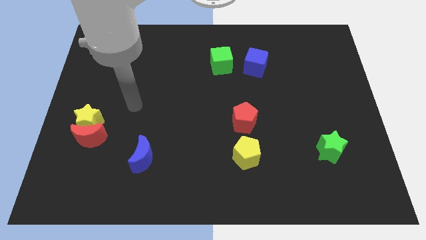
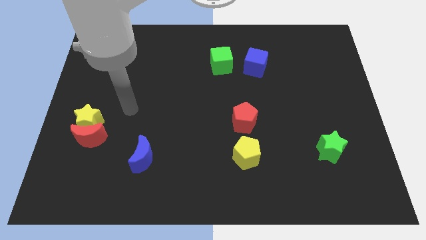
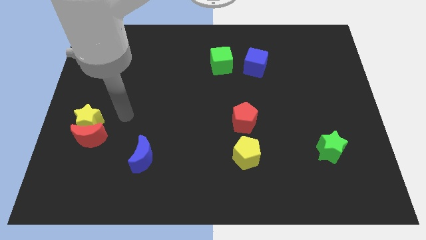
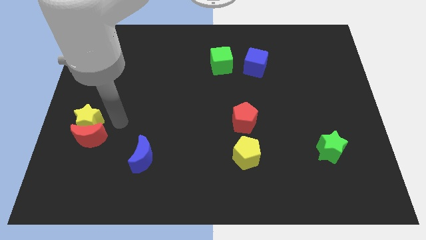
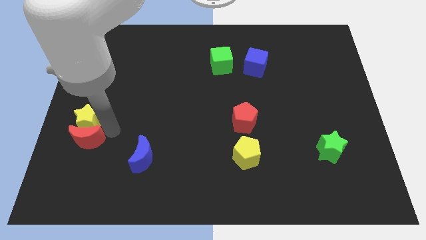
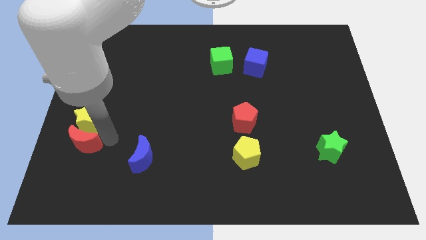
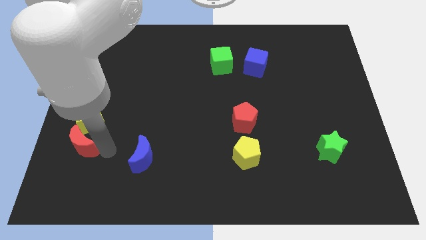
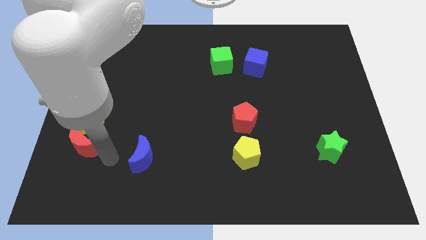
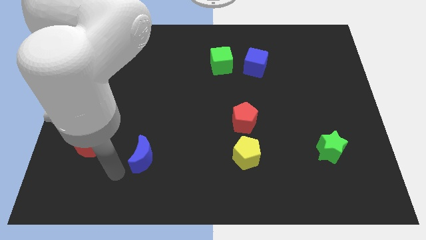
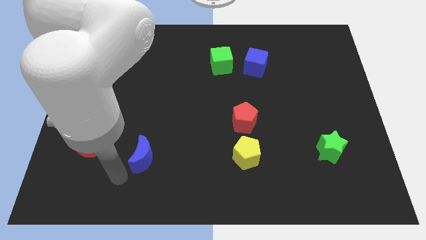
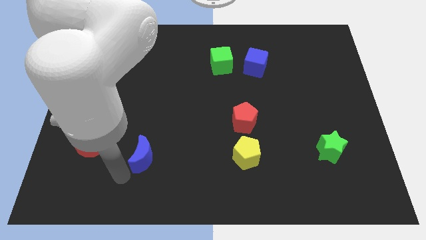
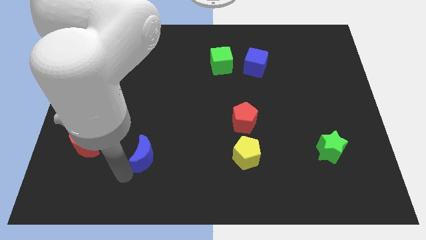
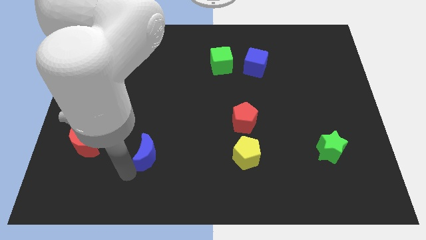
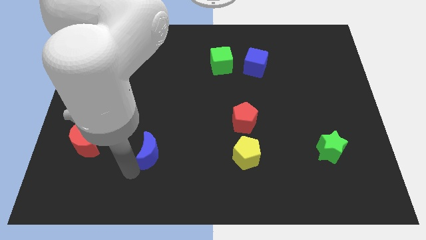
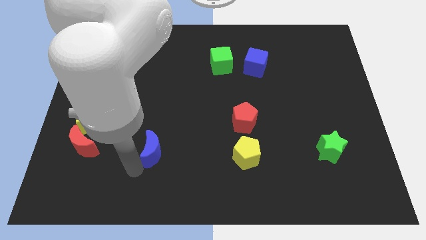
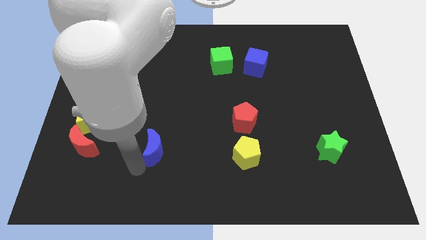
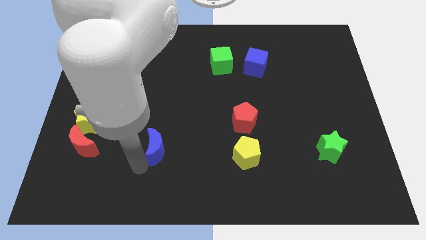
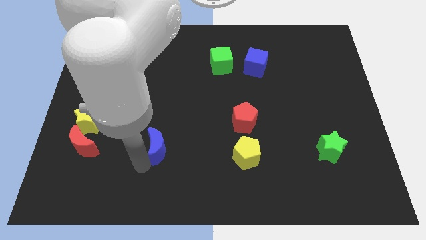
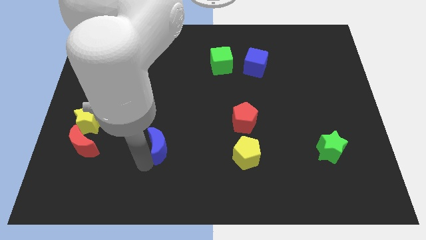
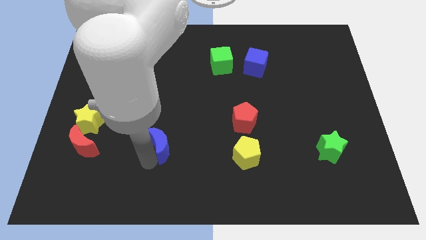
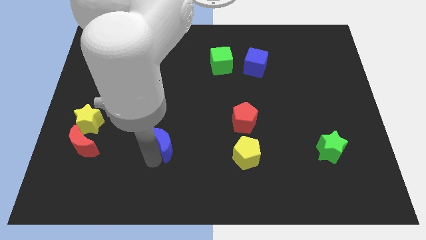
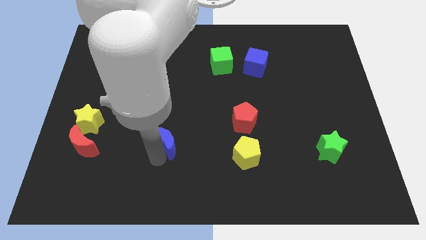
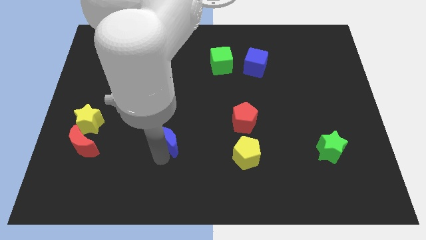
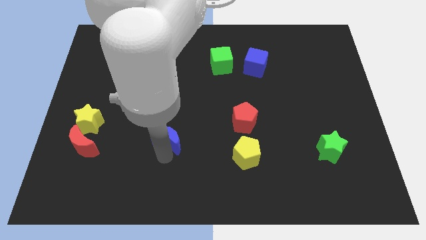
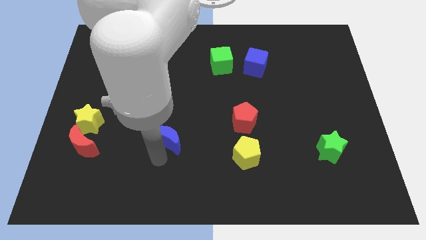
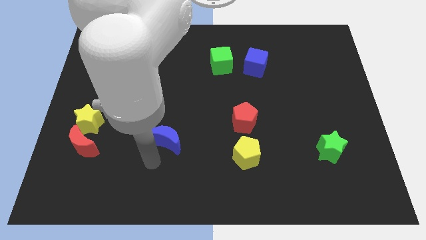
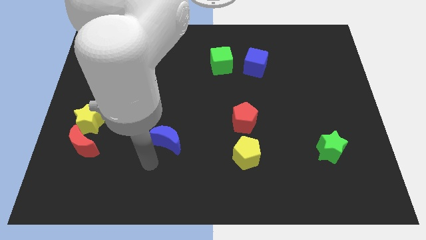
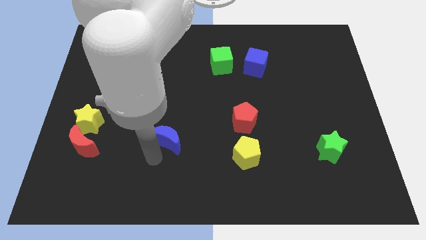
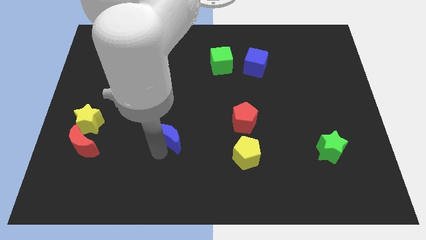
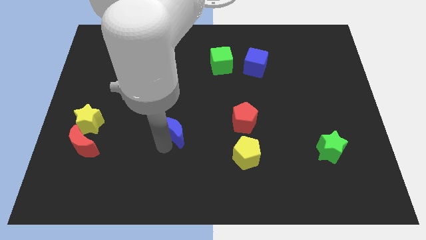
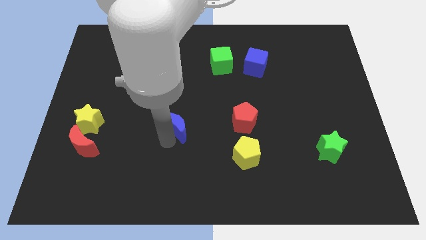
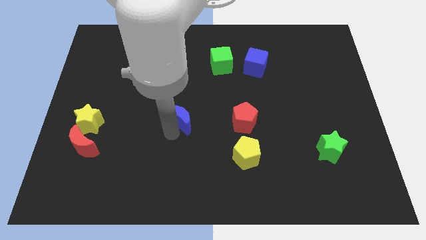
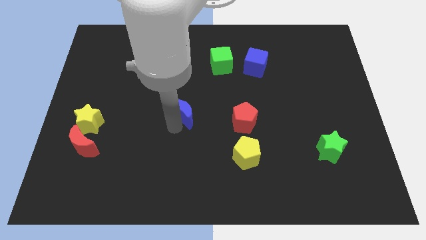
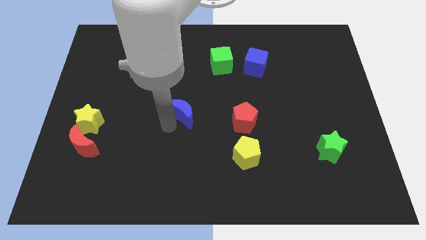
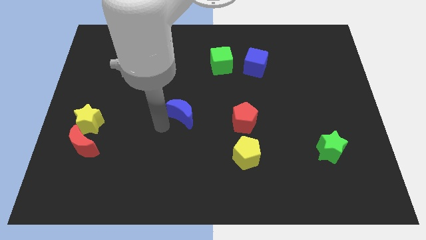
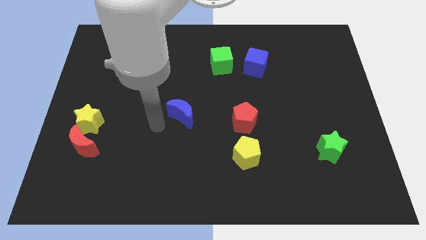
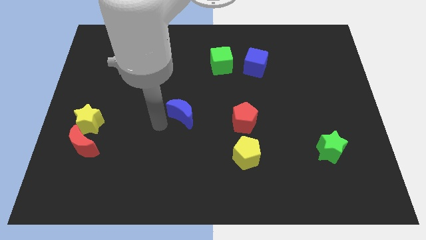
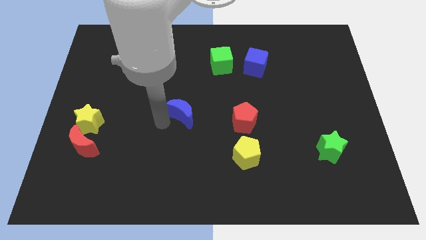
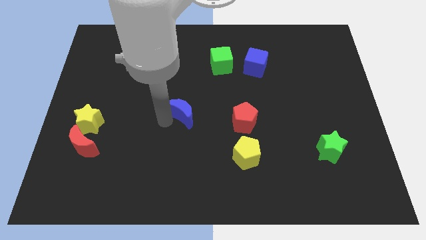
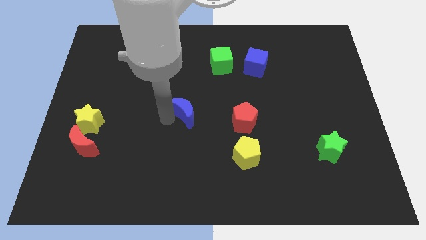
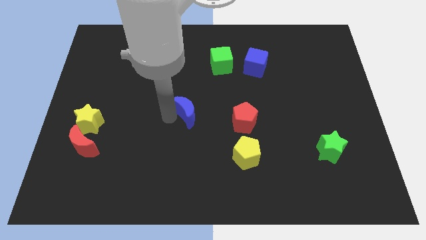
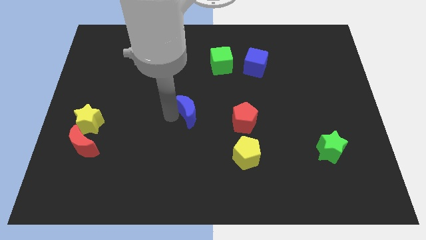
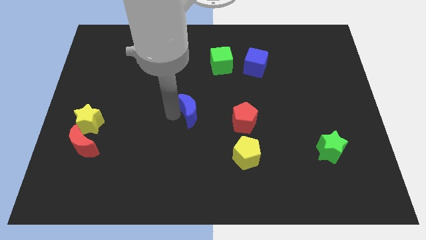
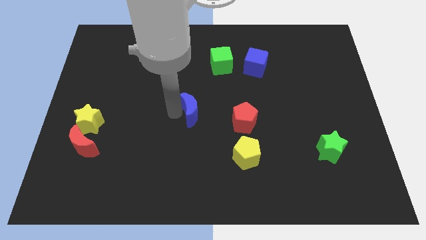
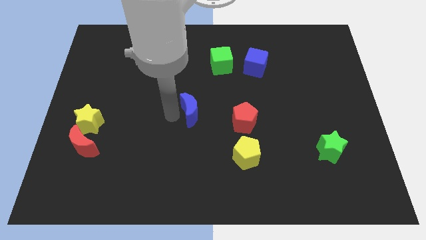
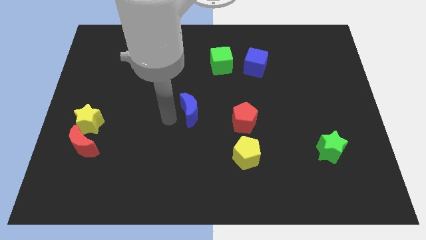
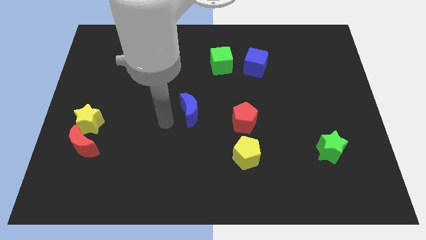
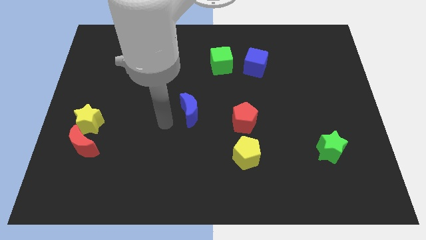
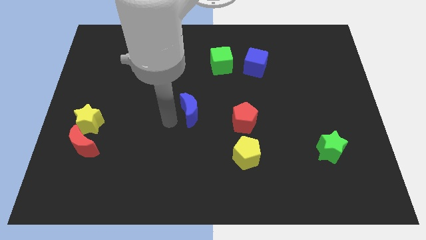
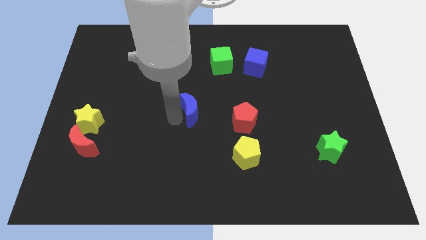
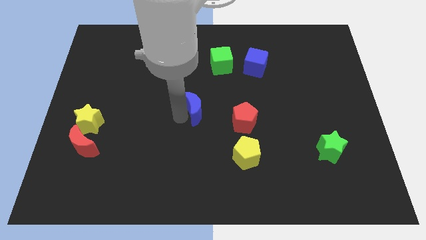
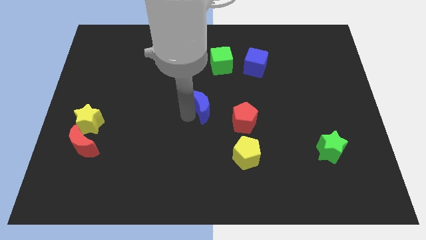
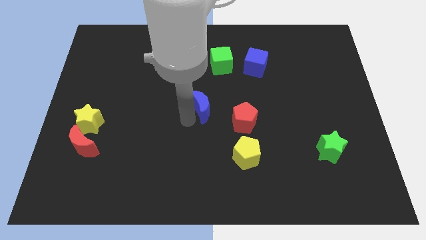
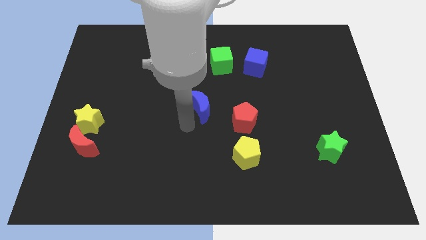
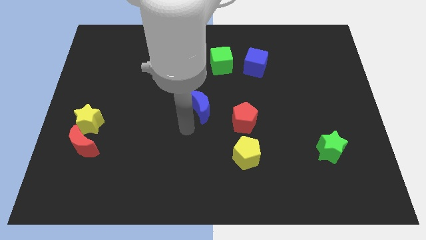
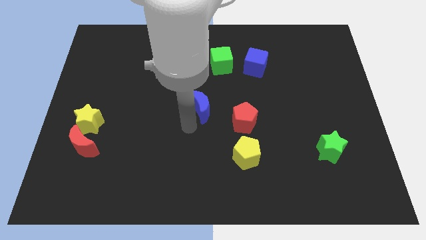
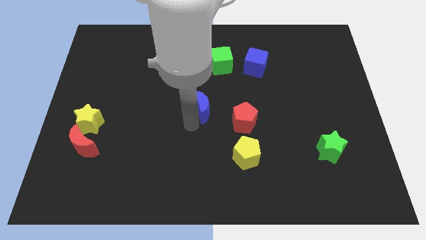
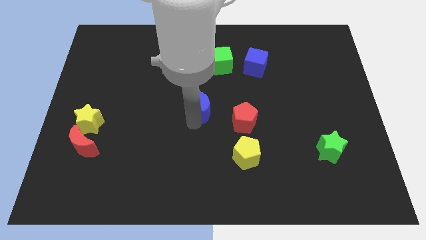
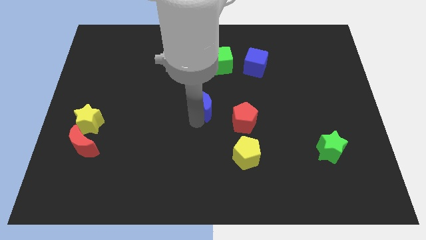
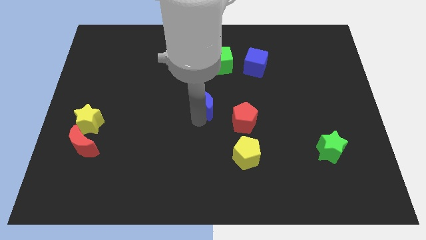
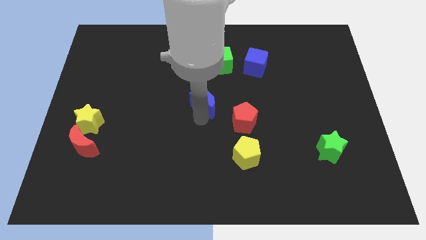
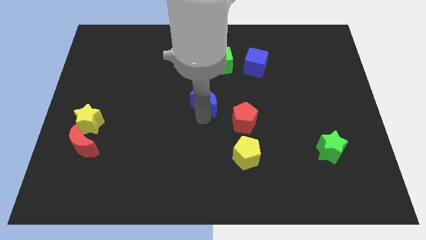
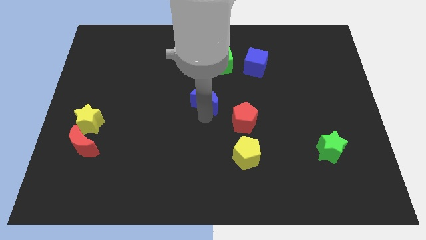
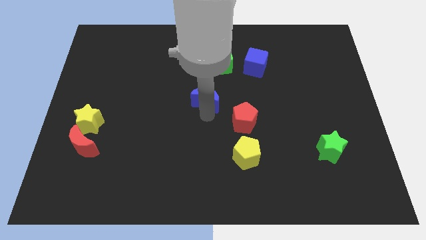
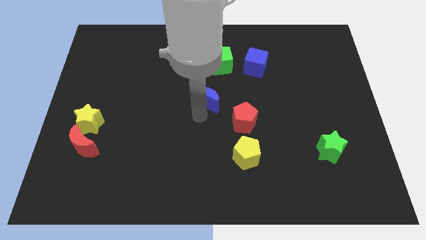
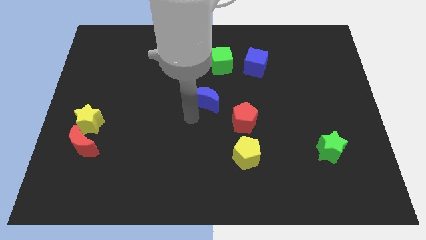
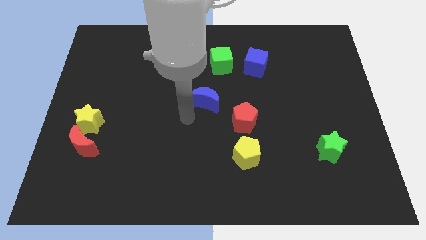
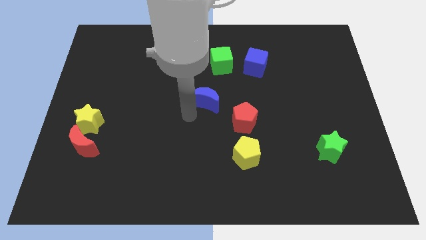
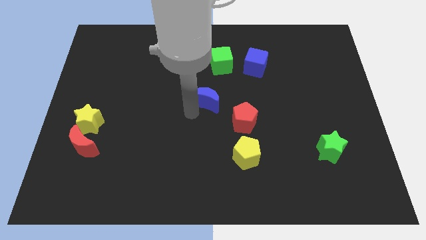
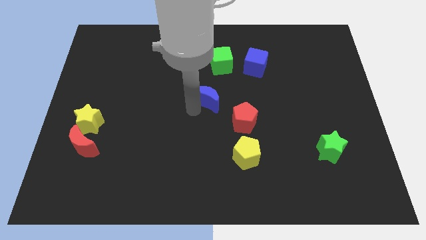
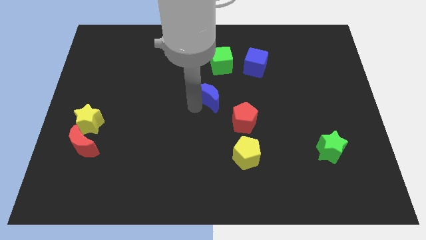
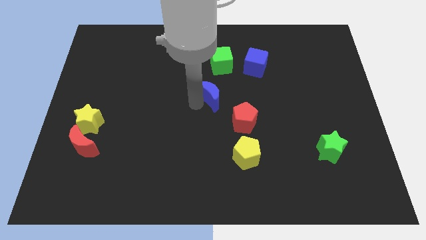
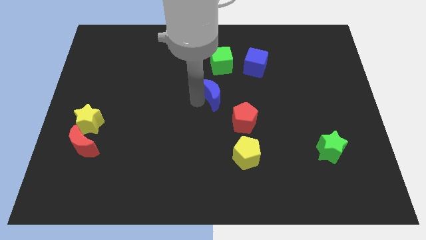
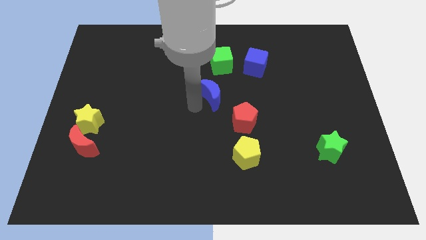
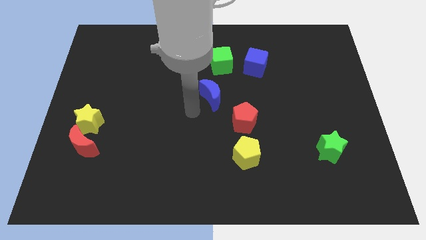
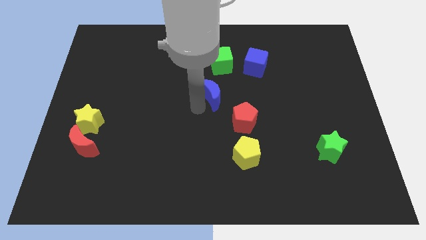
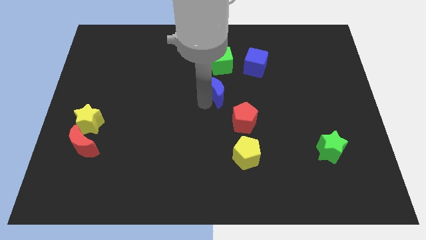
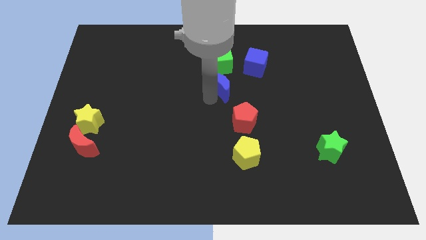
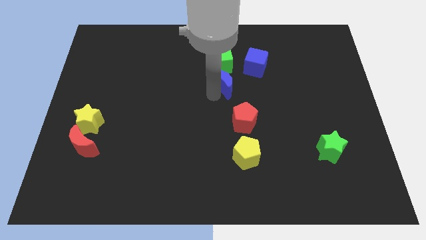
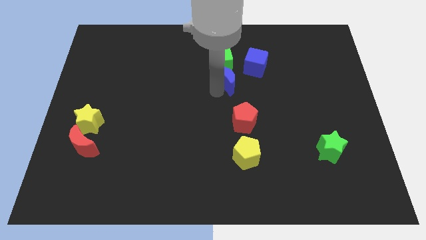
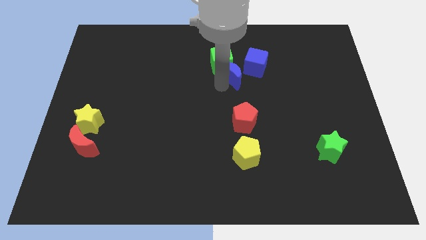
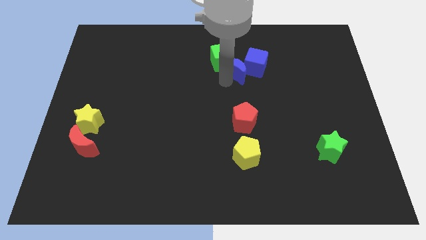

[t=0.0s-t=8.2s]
slide the blue moon to the blue cube
